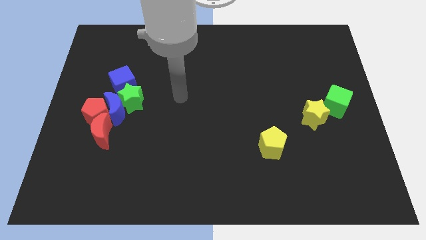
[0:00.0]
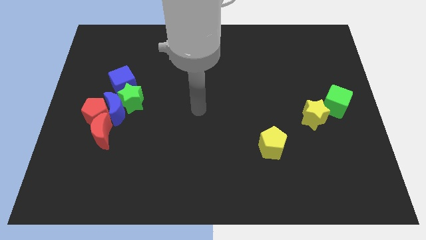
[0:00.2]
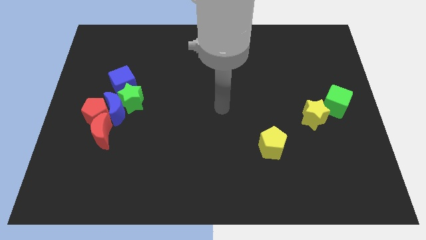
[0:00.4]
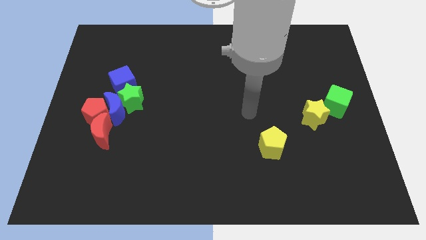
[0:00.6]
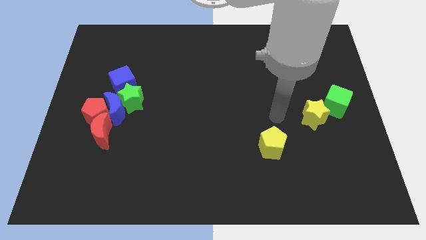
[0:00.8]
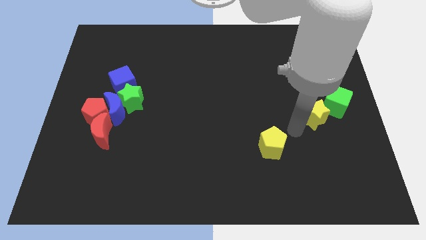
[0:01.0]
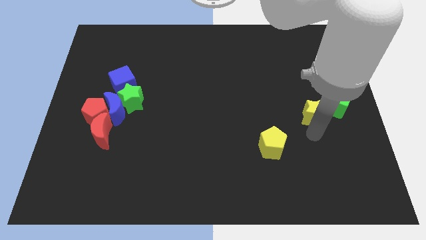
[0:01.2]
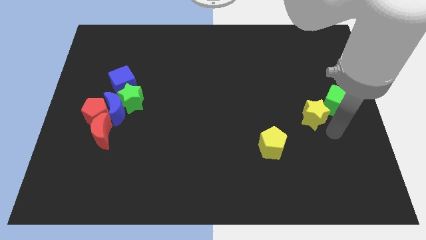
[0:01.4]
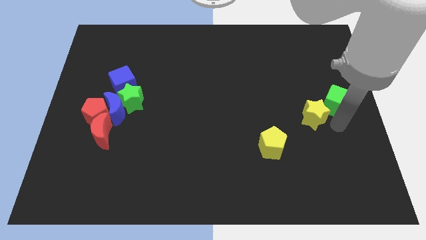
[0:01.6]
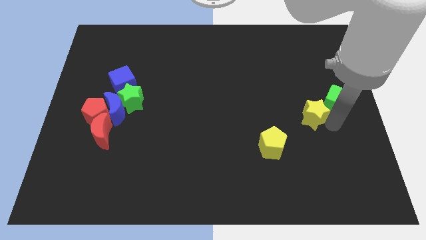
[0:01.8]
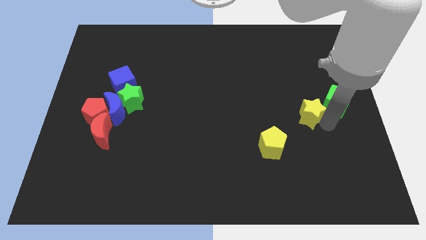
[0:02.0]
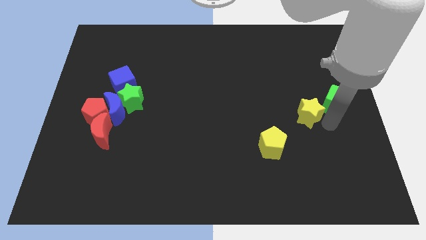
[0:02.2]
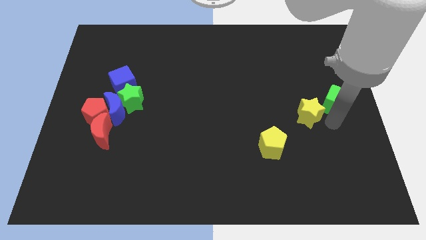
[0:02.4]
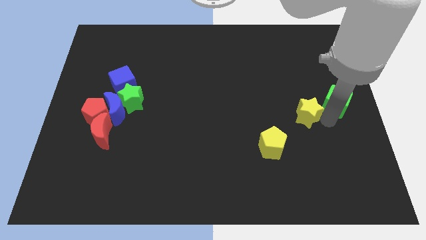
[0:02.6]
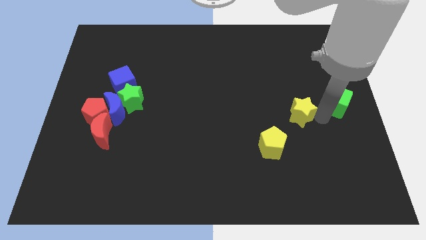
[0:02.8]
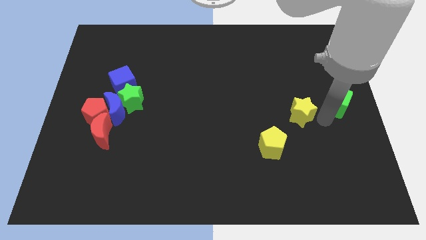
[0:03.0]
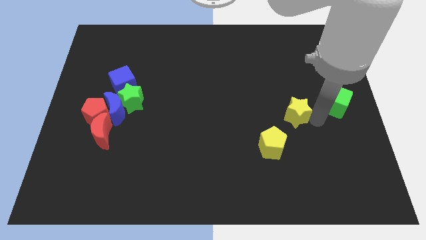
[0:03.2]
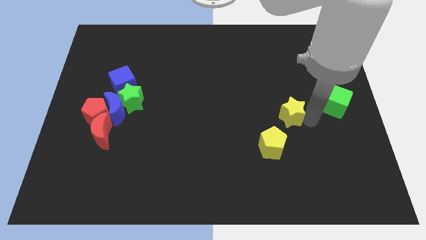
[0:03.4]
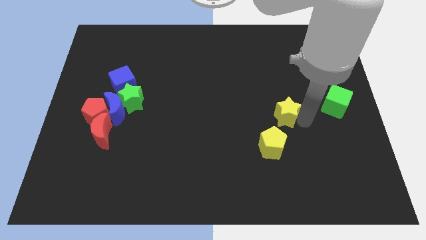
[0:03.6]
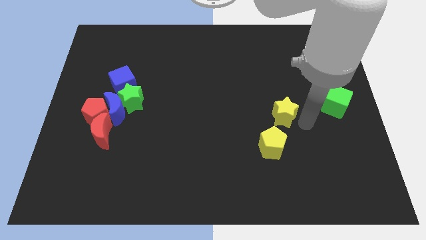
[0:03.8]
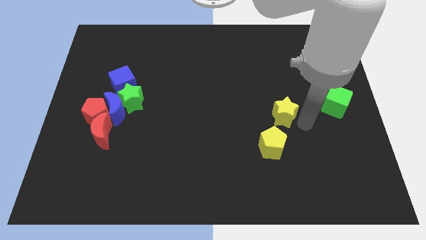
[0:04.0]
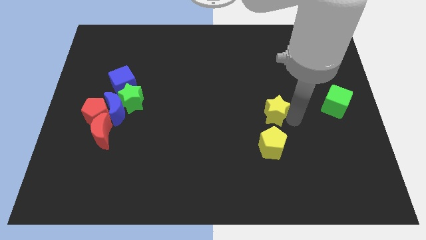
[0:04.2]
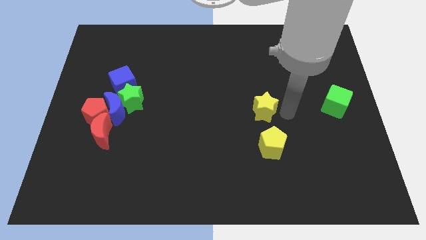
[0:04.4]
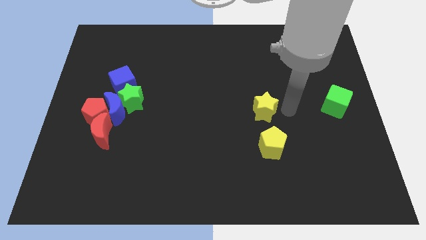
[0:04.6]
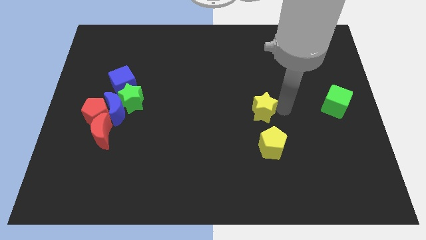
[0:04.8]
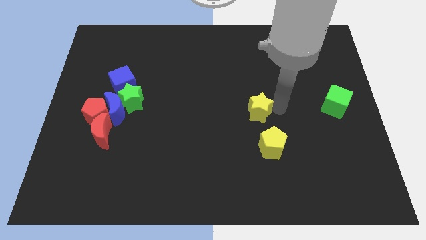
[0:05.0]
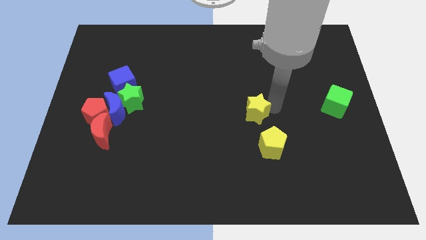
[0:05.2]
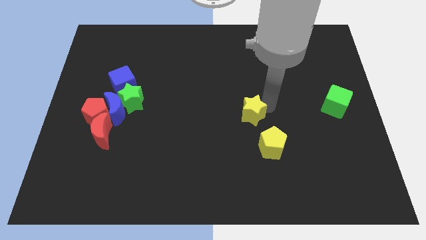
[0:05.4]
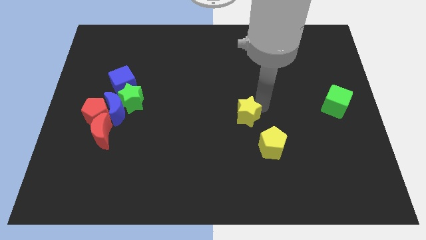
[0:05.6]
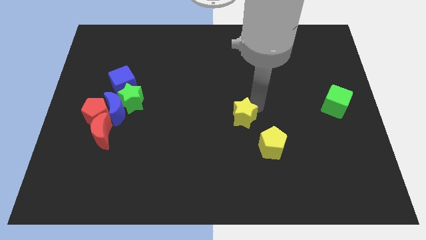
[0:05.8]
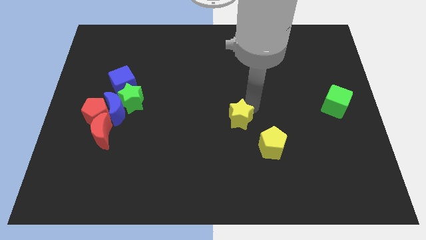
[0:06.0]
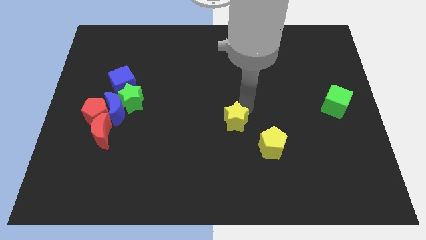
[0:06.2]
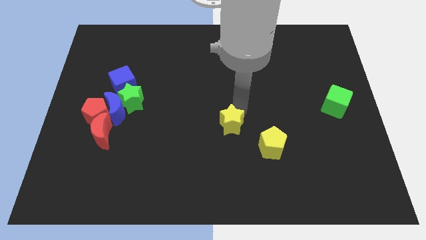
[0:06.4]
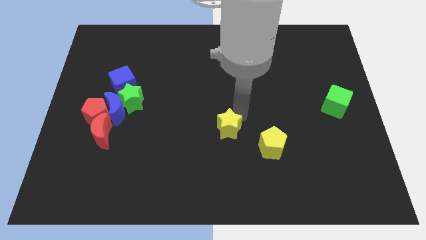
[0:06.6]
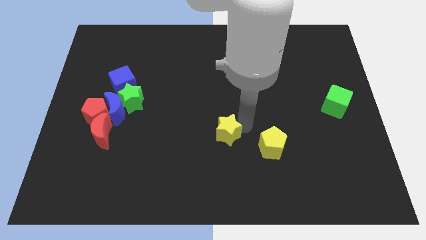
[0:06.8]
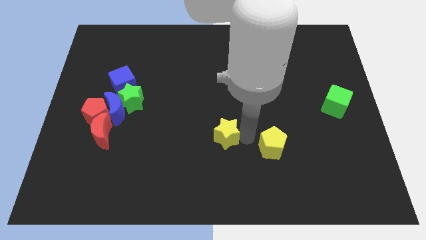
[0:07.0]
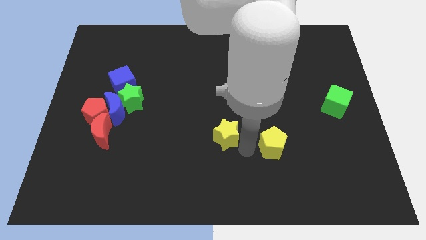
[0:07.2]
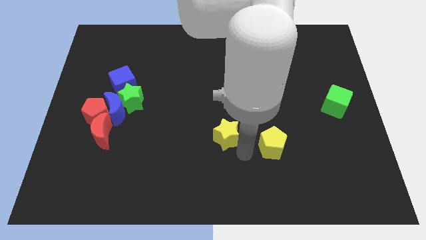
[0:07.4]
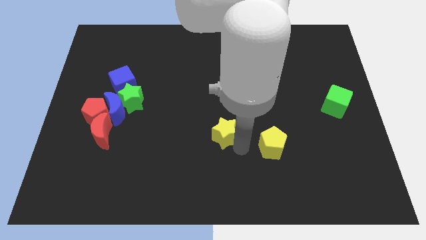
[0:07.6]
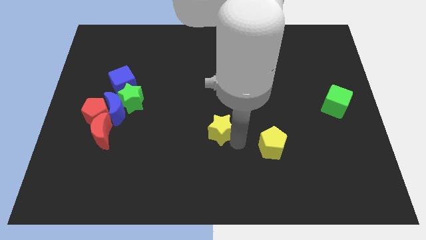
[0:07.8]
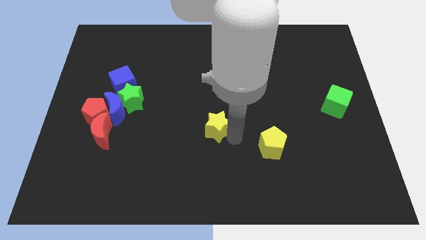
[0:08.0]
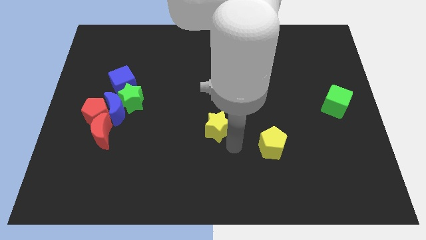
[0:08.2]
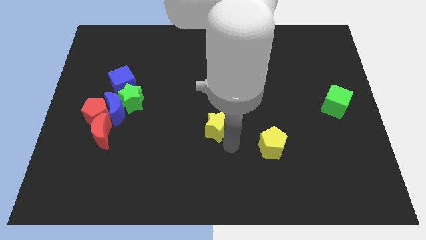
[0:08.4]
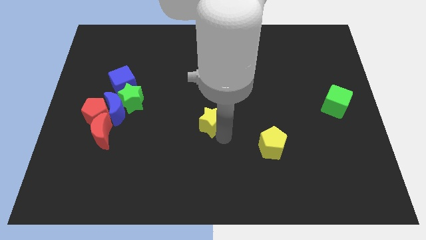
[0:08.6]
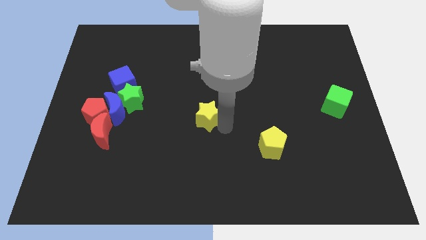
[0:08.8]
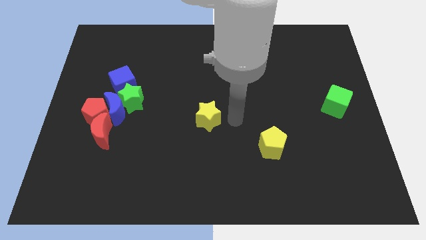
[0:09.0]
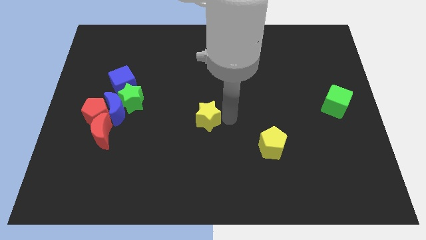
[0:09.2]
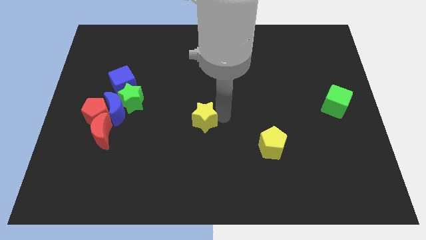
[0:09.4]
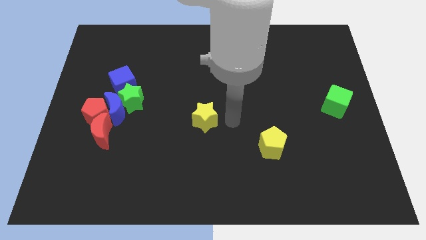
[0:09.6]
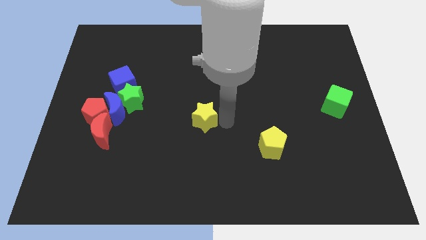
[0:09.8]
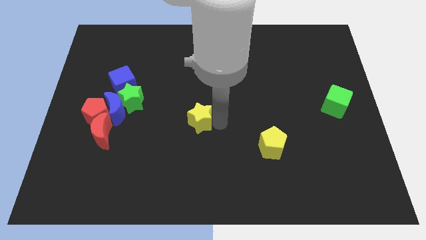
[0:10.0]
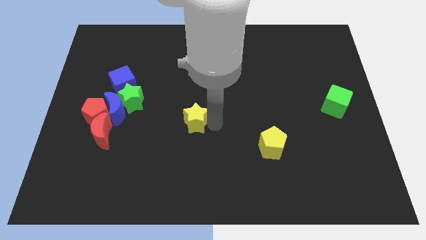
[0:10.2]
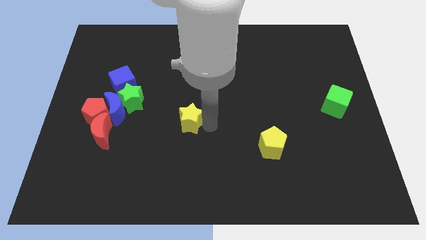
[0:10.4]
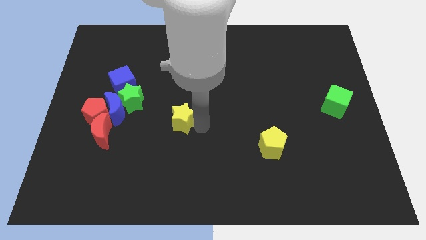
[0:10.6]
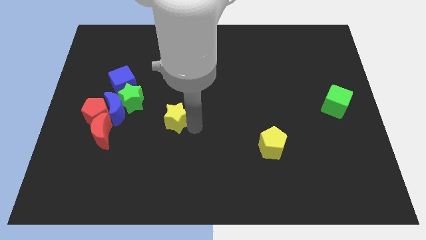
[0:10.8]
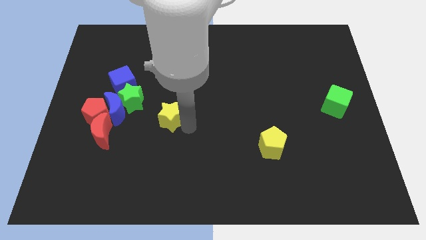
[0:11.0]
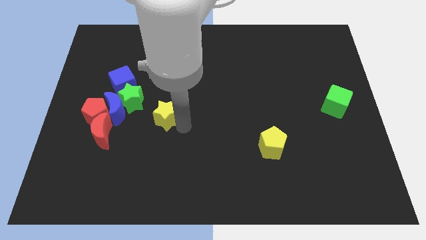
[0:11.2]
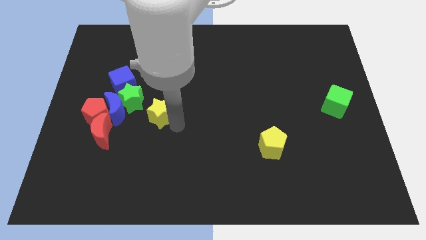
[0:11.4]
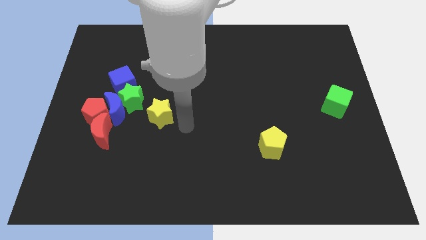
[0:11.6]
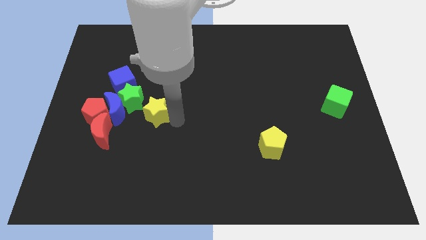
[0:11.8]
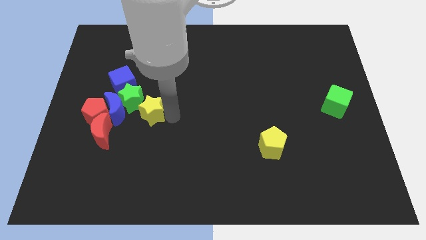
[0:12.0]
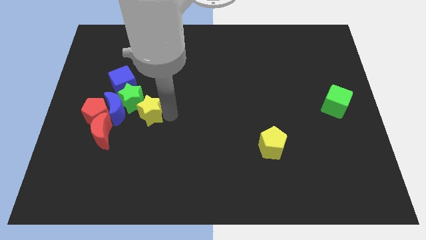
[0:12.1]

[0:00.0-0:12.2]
push the yellow star towards the green star

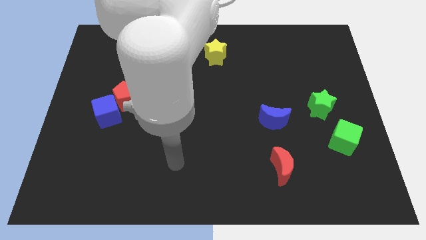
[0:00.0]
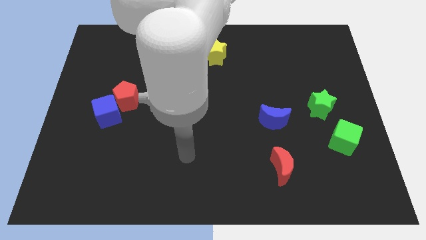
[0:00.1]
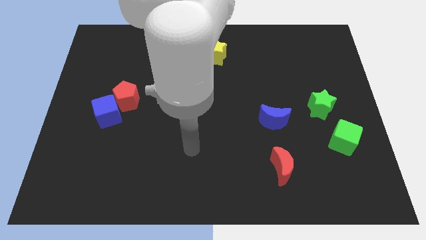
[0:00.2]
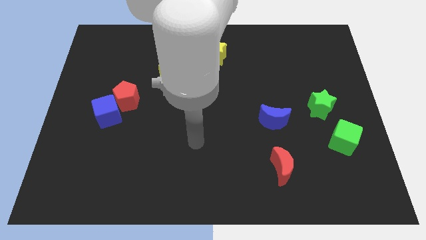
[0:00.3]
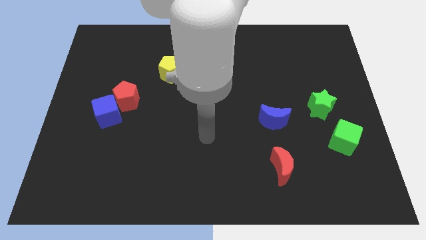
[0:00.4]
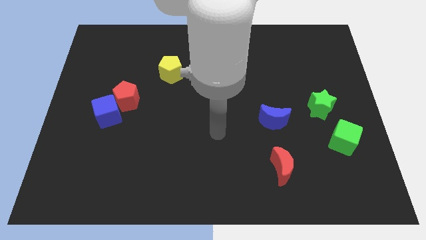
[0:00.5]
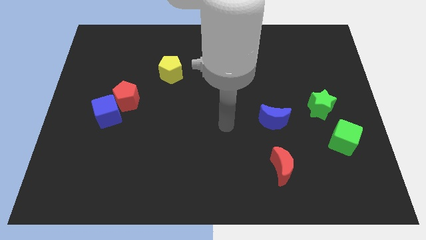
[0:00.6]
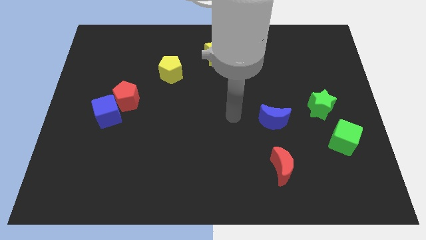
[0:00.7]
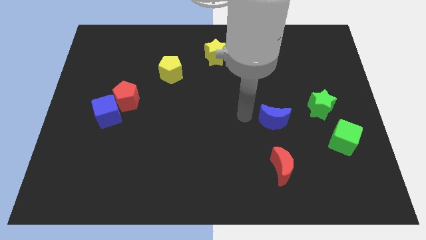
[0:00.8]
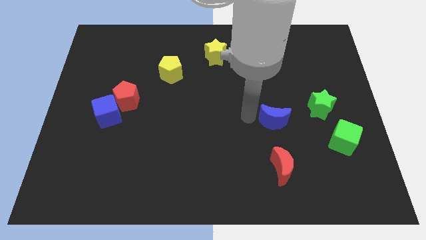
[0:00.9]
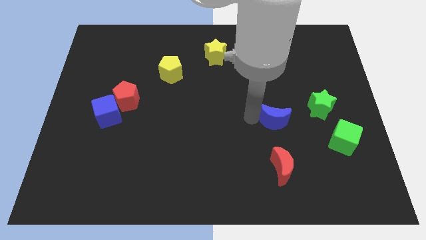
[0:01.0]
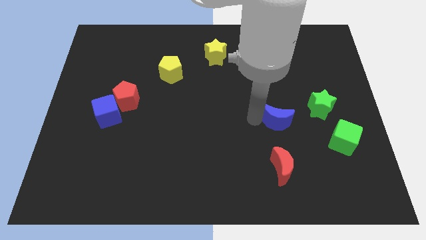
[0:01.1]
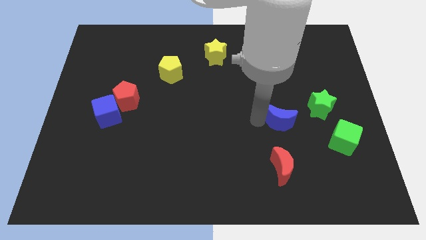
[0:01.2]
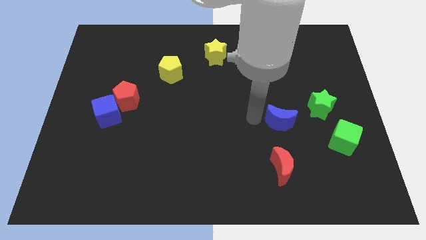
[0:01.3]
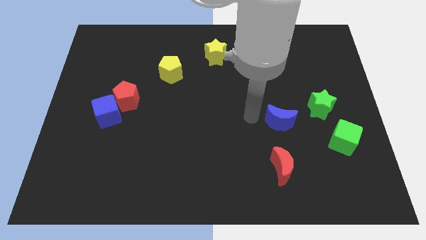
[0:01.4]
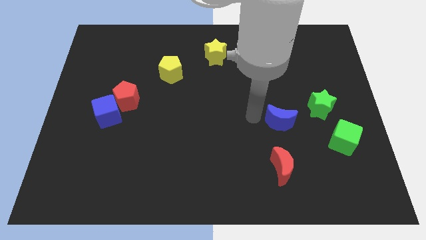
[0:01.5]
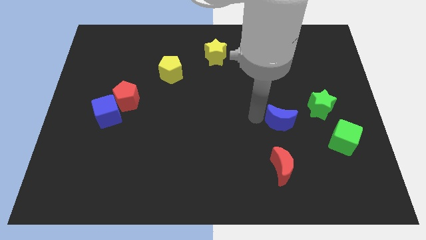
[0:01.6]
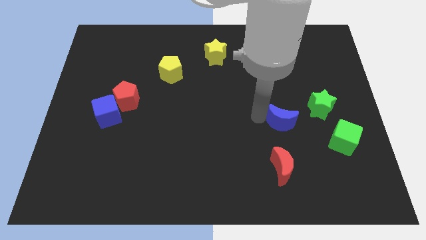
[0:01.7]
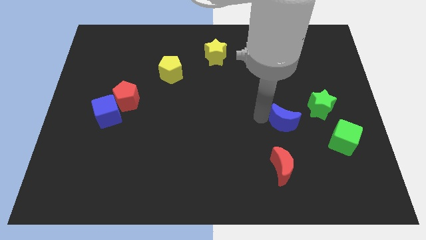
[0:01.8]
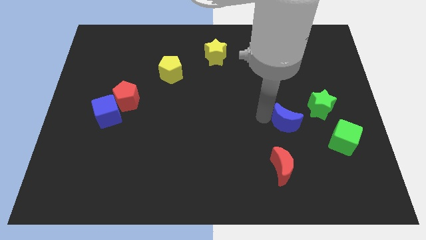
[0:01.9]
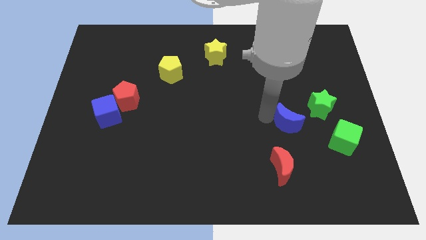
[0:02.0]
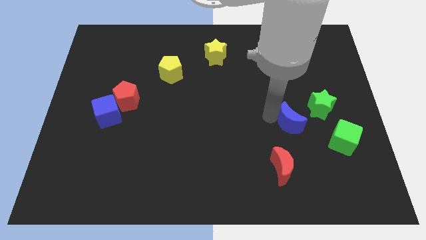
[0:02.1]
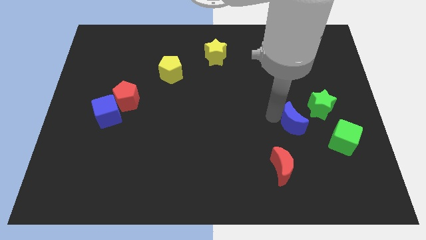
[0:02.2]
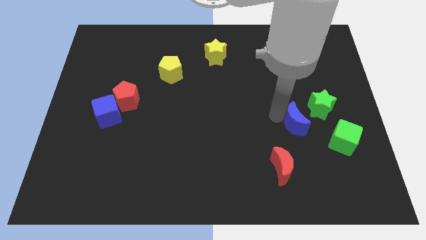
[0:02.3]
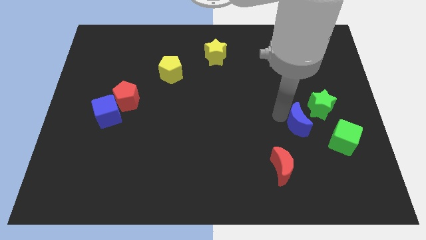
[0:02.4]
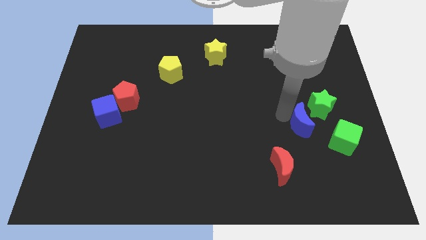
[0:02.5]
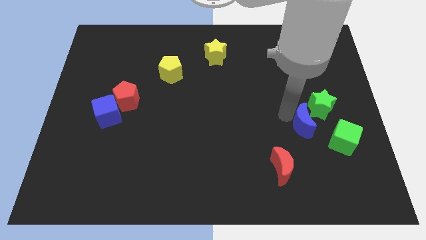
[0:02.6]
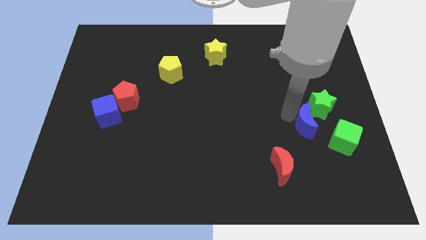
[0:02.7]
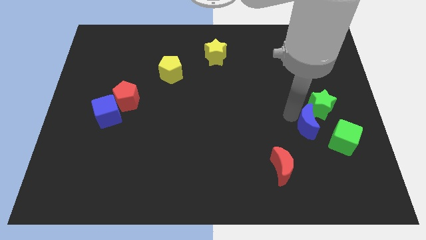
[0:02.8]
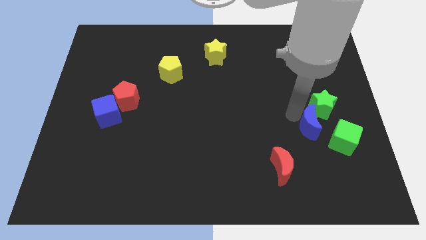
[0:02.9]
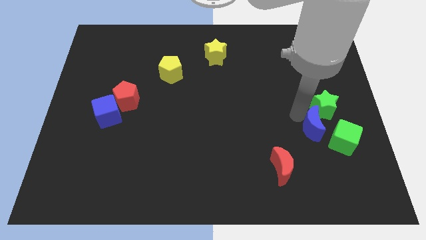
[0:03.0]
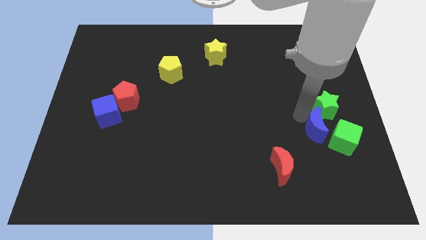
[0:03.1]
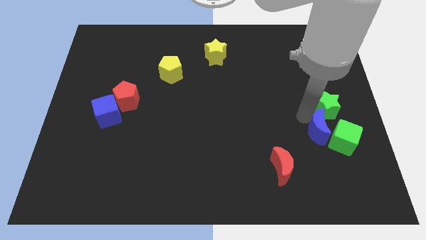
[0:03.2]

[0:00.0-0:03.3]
move the blue moon next to the green cube
